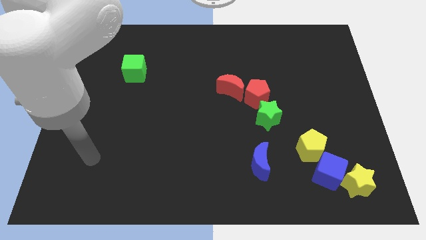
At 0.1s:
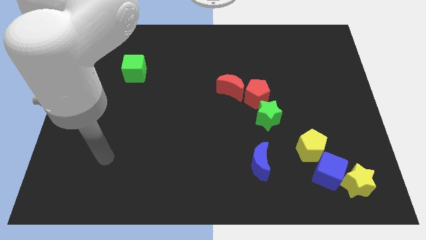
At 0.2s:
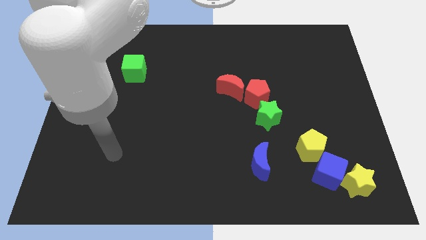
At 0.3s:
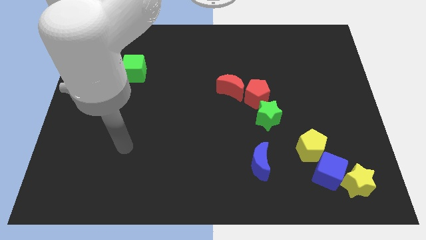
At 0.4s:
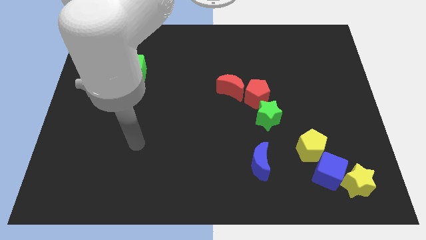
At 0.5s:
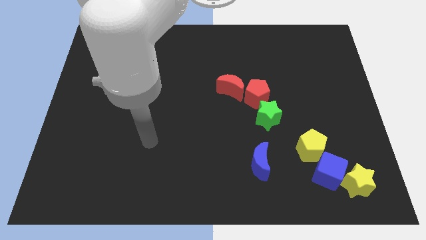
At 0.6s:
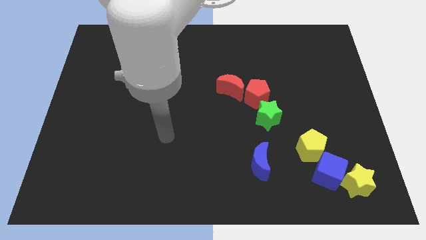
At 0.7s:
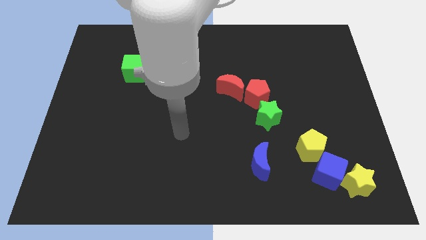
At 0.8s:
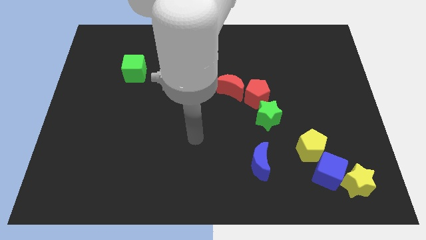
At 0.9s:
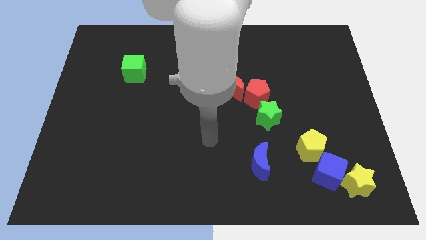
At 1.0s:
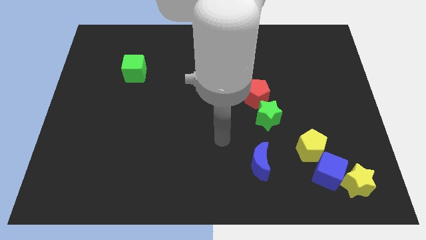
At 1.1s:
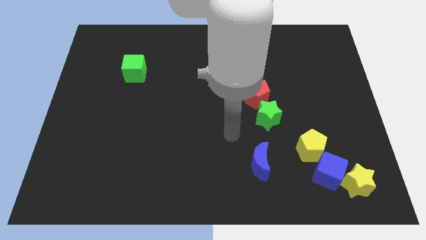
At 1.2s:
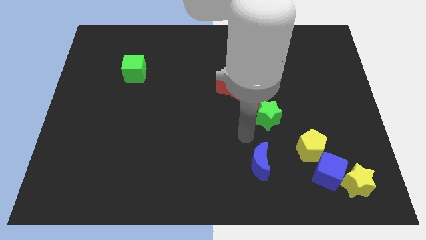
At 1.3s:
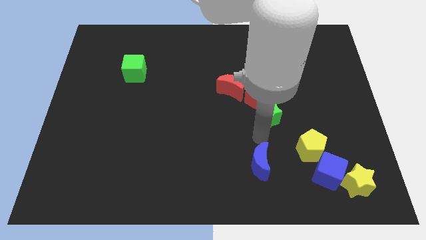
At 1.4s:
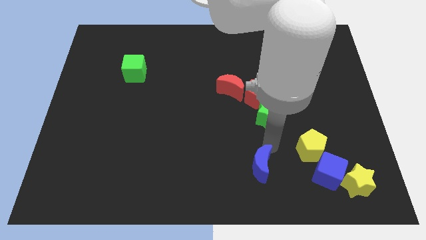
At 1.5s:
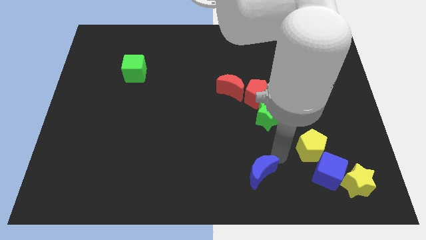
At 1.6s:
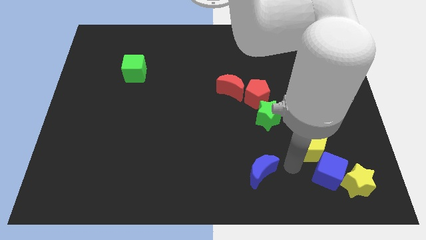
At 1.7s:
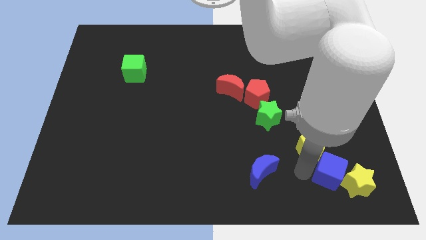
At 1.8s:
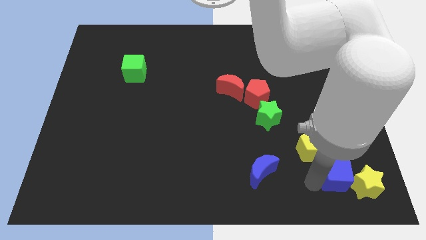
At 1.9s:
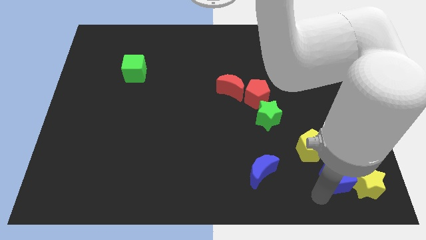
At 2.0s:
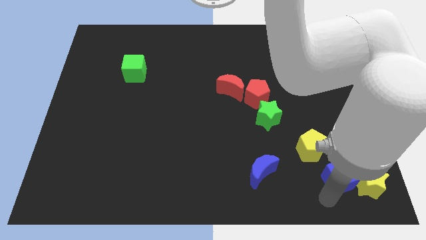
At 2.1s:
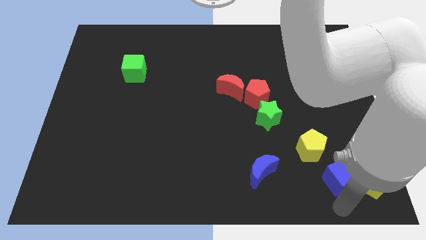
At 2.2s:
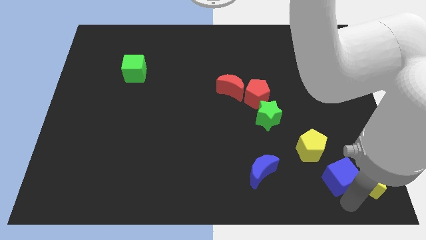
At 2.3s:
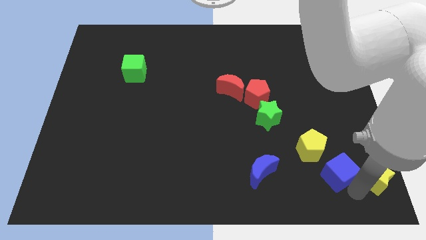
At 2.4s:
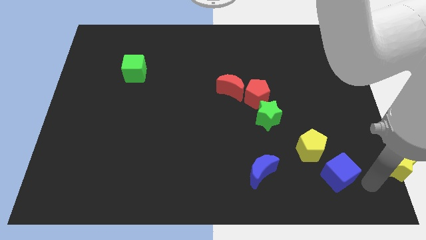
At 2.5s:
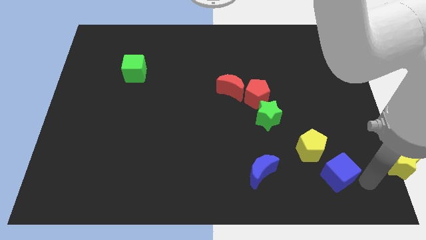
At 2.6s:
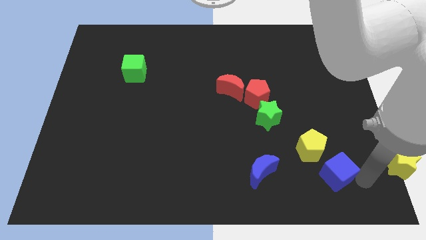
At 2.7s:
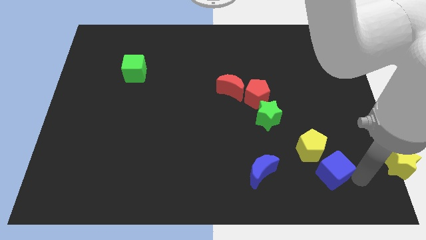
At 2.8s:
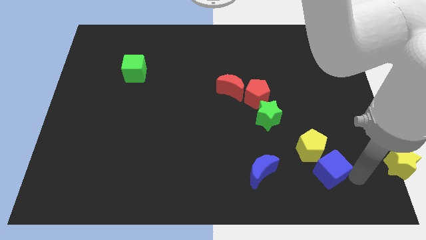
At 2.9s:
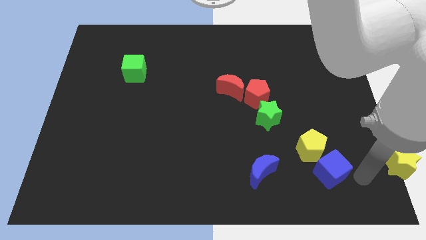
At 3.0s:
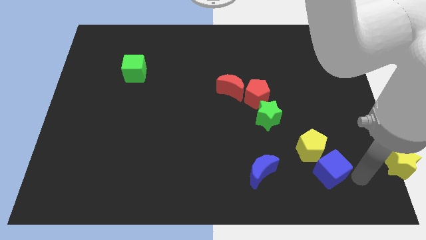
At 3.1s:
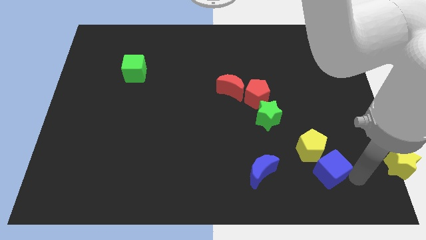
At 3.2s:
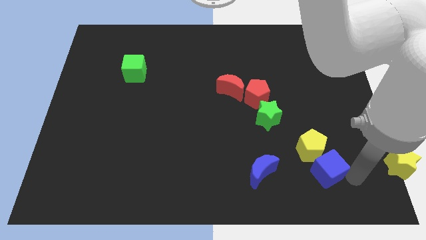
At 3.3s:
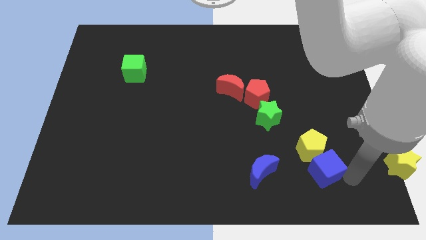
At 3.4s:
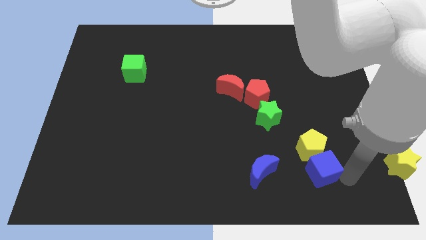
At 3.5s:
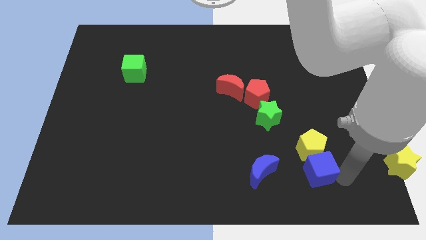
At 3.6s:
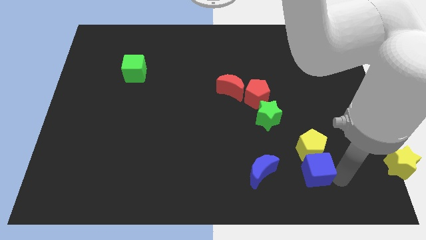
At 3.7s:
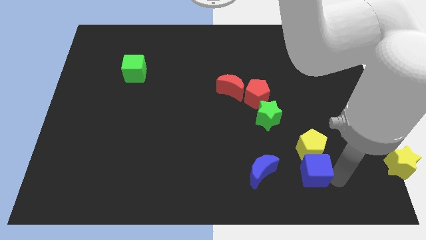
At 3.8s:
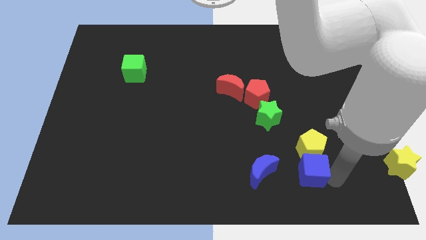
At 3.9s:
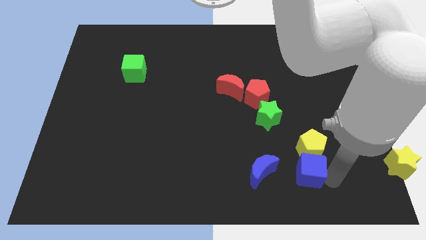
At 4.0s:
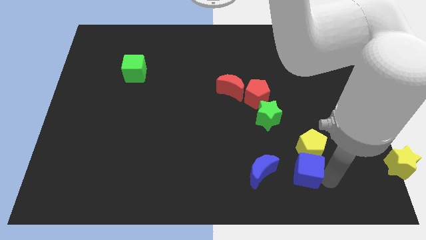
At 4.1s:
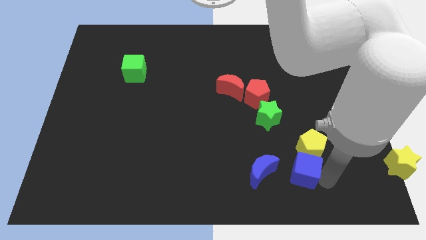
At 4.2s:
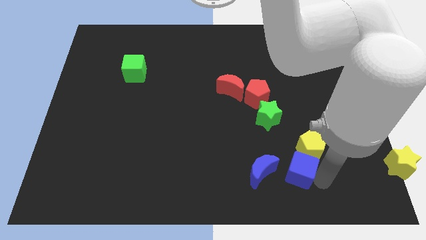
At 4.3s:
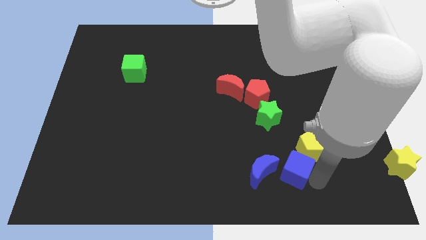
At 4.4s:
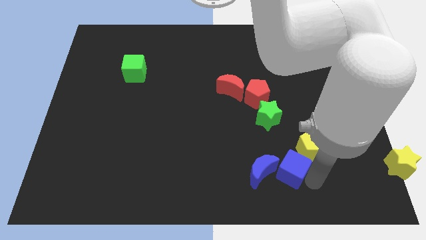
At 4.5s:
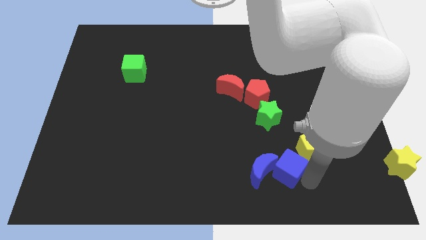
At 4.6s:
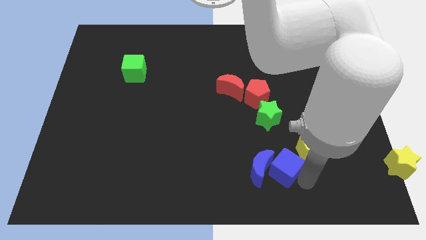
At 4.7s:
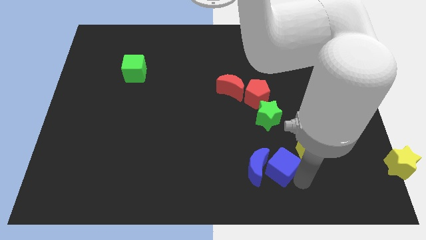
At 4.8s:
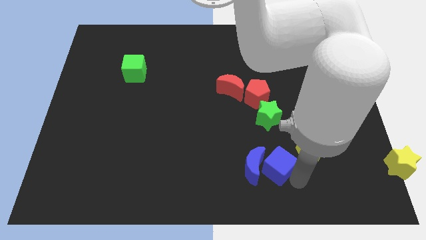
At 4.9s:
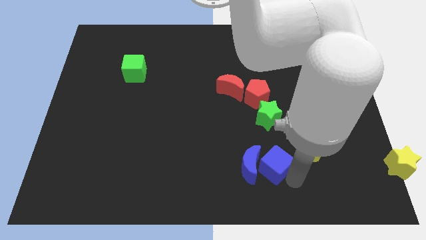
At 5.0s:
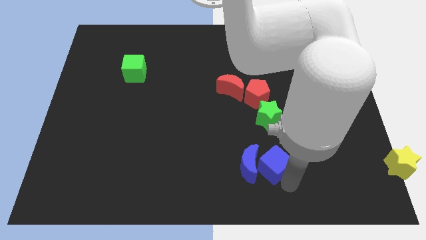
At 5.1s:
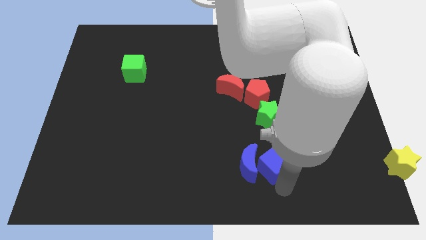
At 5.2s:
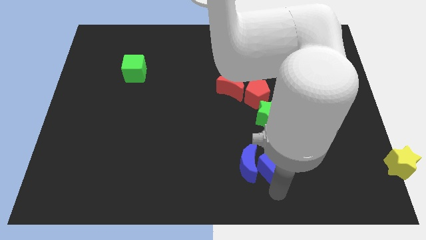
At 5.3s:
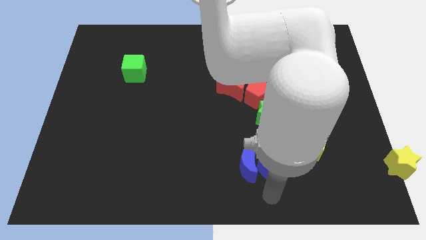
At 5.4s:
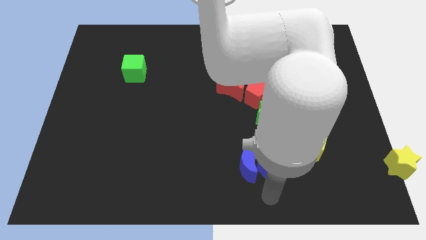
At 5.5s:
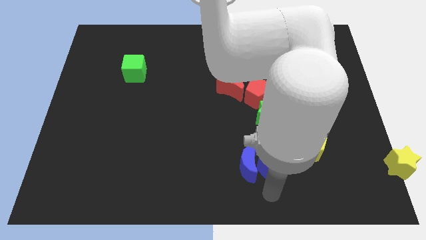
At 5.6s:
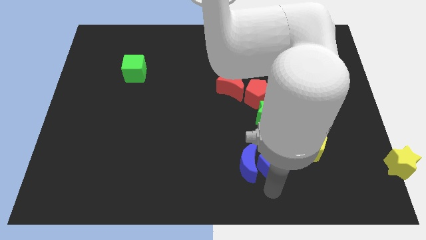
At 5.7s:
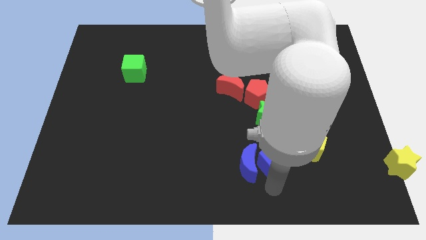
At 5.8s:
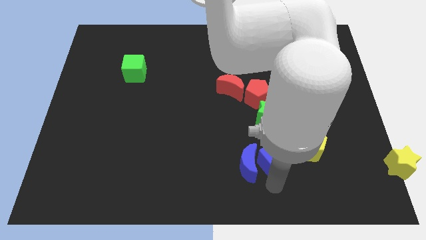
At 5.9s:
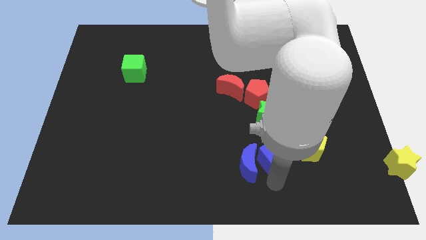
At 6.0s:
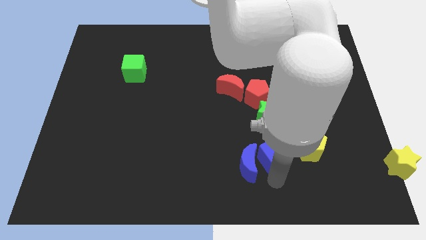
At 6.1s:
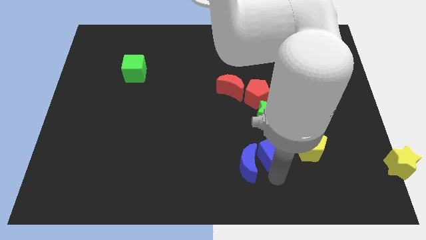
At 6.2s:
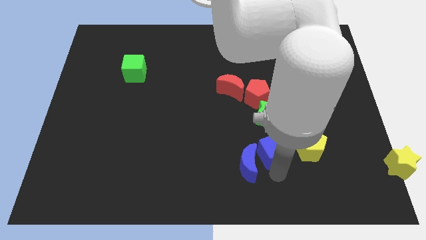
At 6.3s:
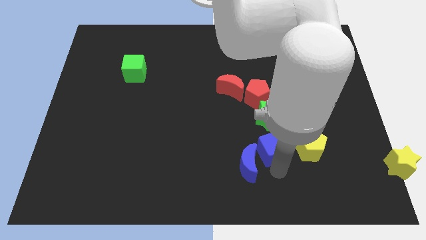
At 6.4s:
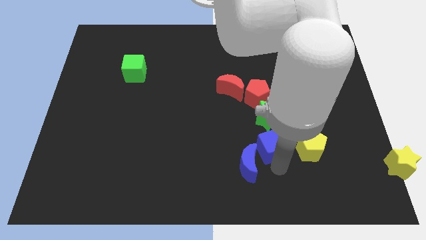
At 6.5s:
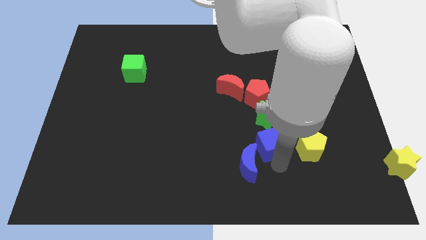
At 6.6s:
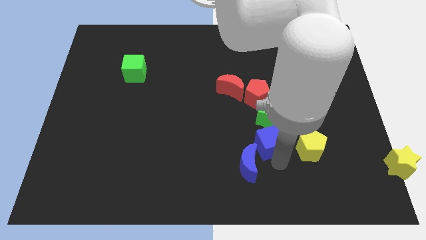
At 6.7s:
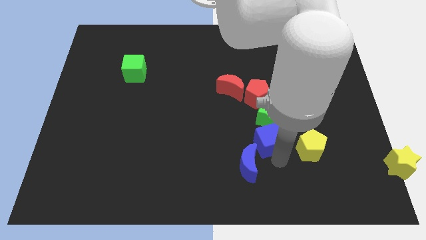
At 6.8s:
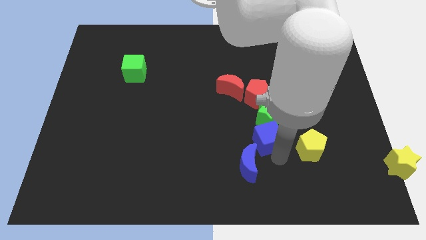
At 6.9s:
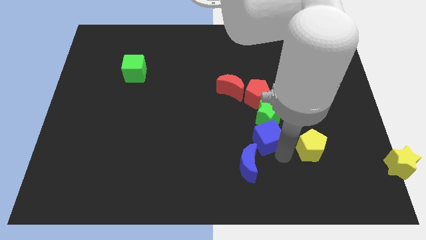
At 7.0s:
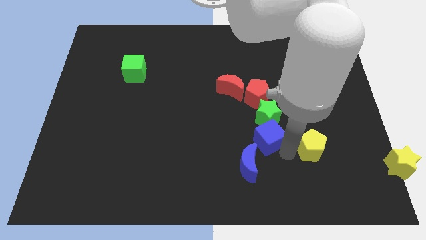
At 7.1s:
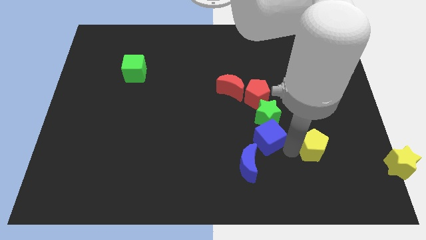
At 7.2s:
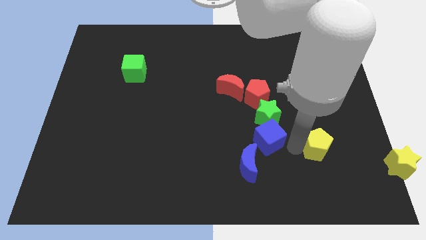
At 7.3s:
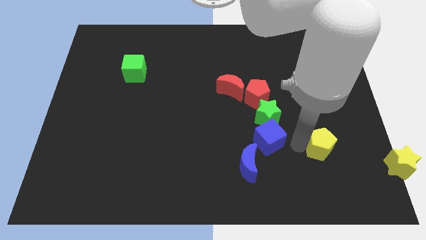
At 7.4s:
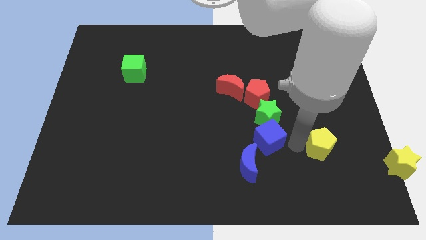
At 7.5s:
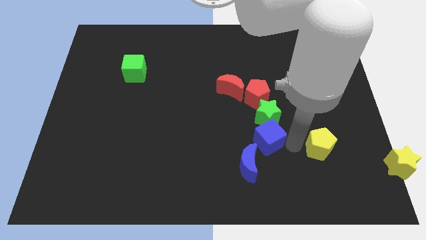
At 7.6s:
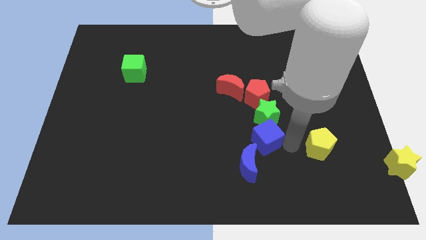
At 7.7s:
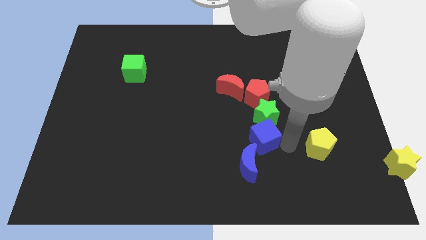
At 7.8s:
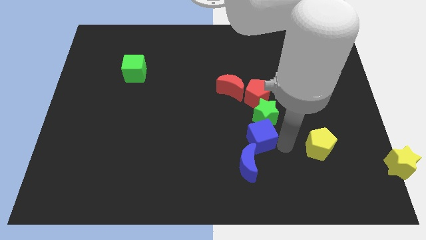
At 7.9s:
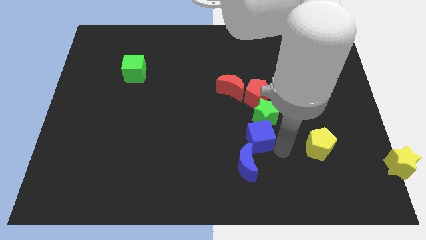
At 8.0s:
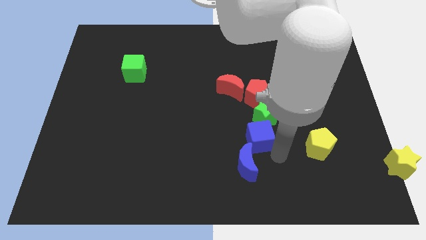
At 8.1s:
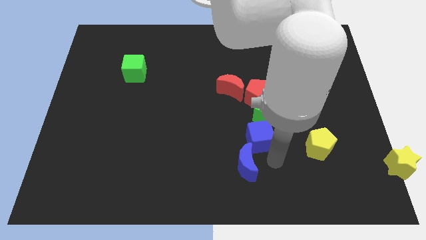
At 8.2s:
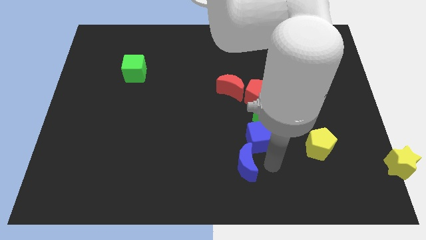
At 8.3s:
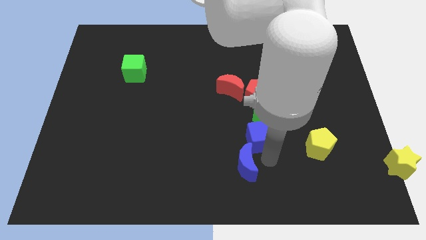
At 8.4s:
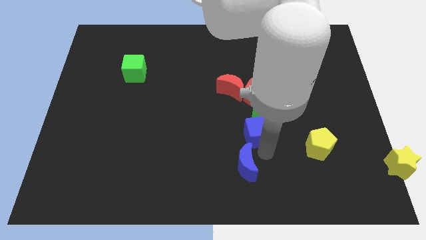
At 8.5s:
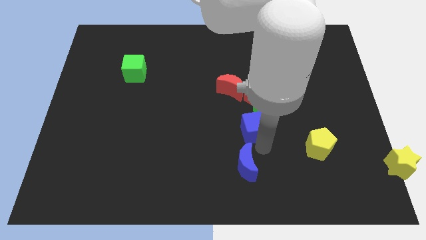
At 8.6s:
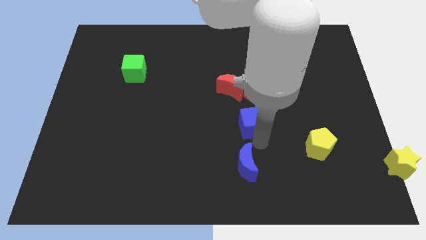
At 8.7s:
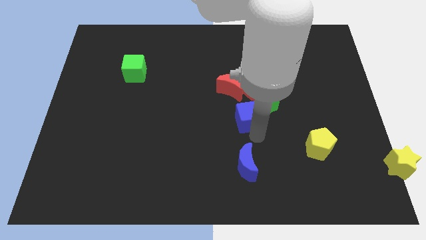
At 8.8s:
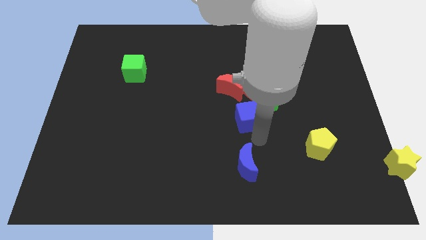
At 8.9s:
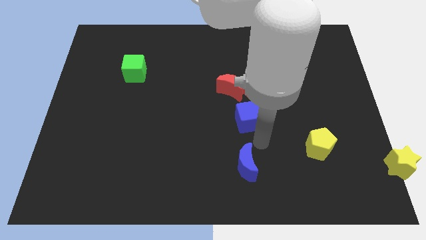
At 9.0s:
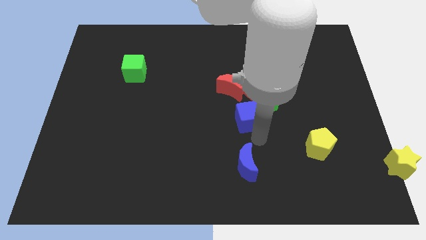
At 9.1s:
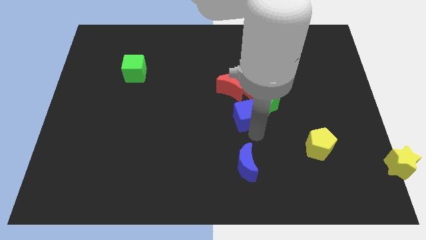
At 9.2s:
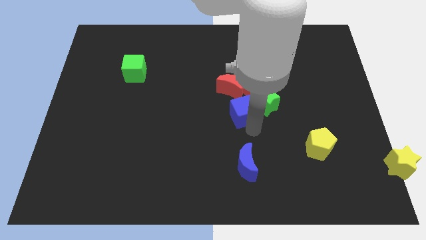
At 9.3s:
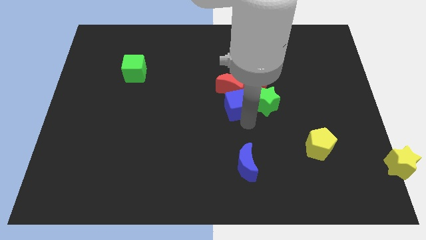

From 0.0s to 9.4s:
slide the blue cube towards the red moon
